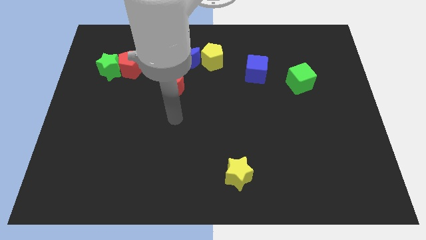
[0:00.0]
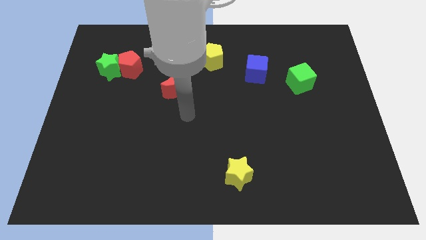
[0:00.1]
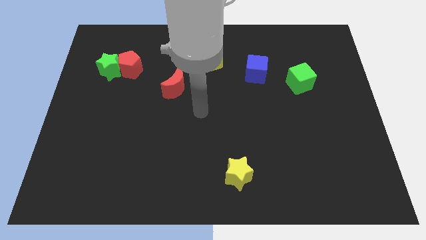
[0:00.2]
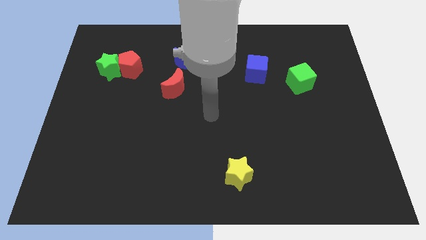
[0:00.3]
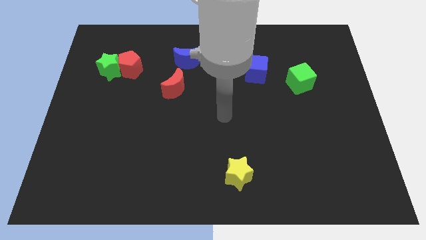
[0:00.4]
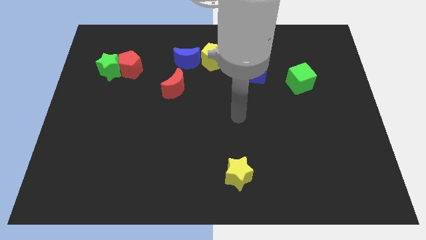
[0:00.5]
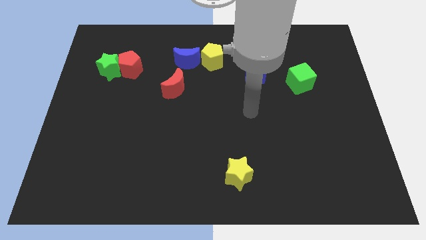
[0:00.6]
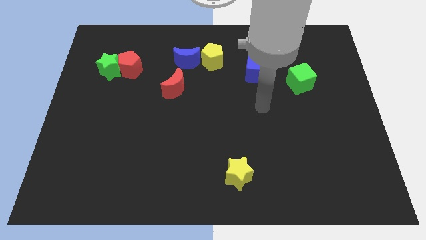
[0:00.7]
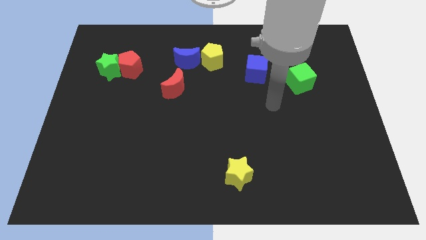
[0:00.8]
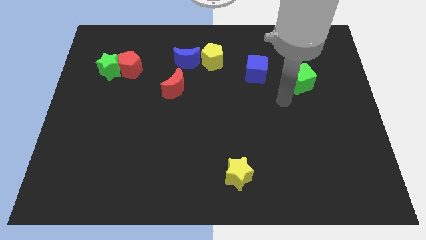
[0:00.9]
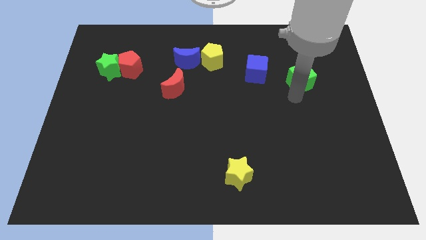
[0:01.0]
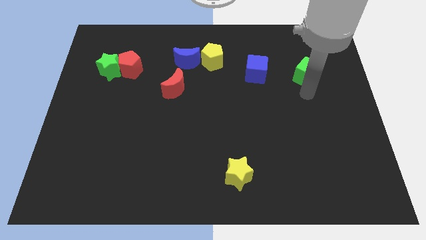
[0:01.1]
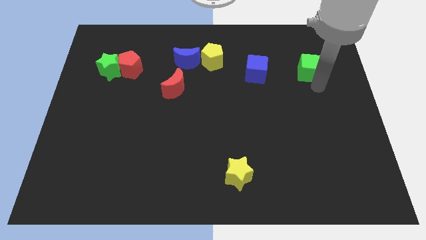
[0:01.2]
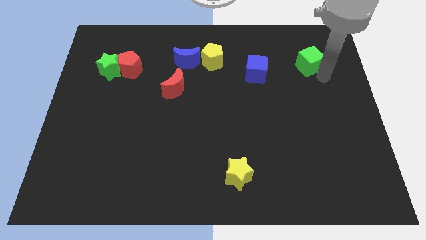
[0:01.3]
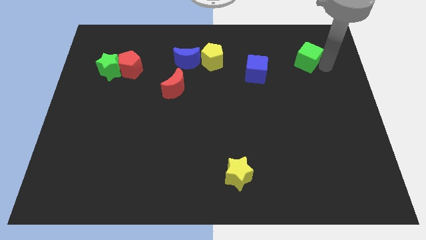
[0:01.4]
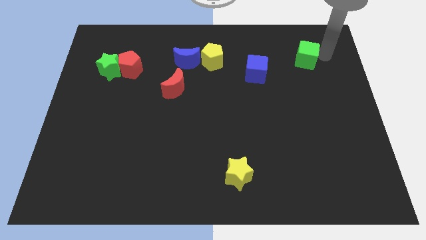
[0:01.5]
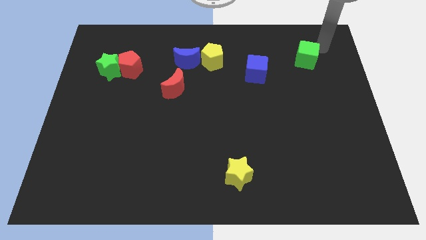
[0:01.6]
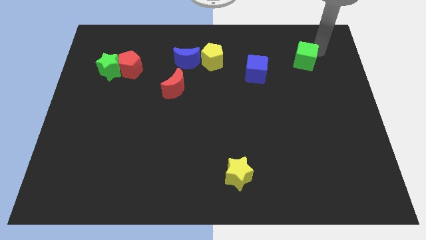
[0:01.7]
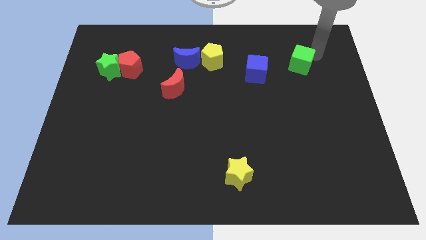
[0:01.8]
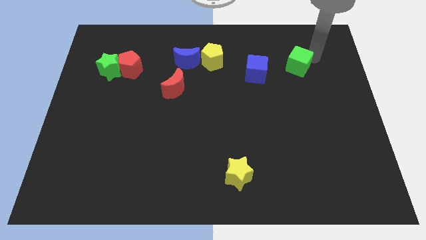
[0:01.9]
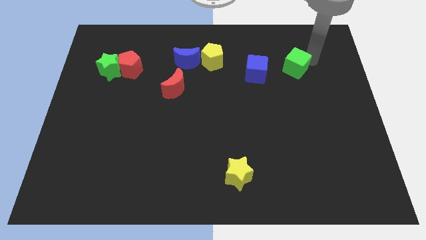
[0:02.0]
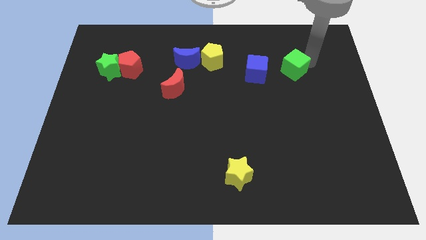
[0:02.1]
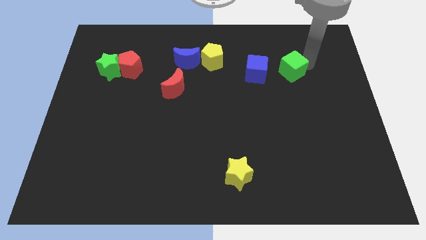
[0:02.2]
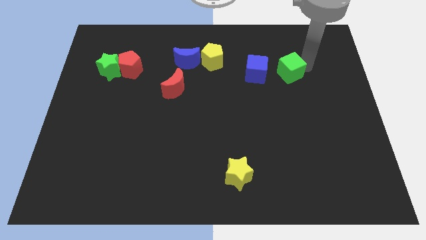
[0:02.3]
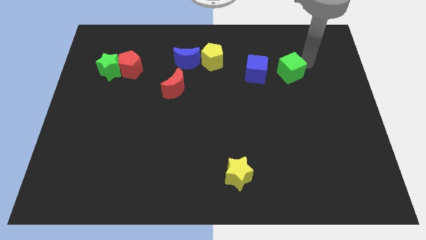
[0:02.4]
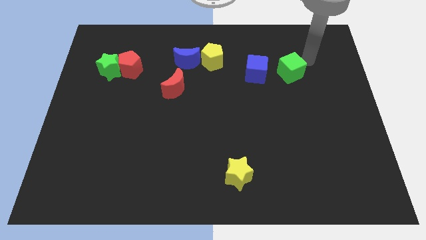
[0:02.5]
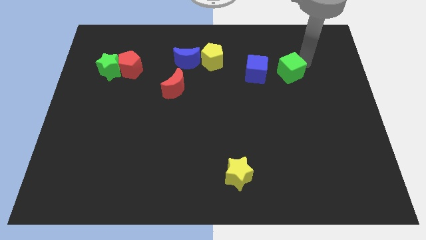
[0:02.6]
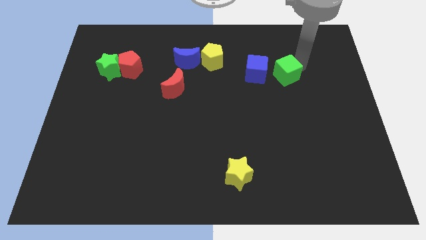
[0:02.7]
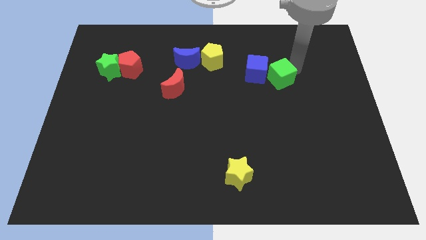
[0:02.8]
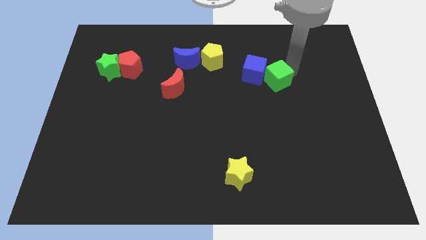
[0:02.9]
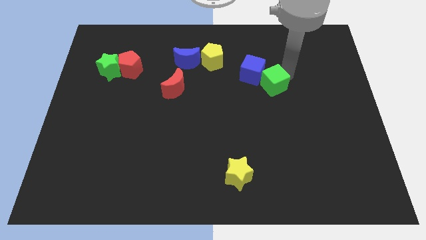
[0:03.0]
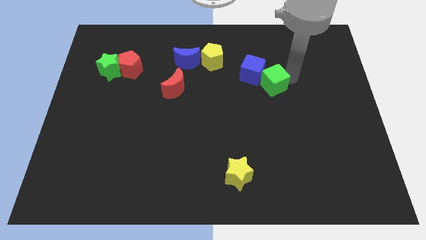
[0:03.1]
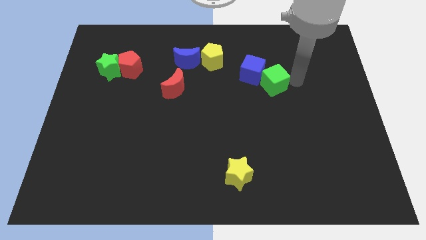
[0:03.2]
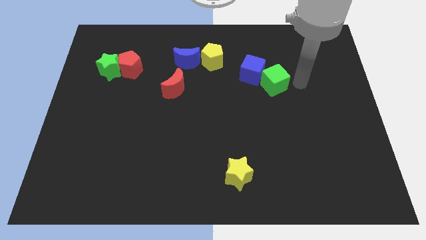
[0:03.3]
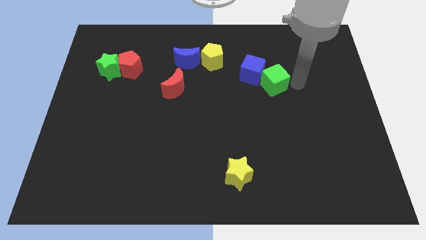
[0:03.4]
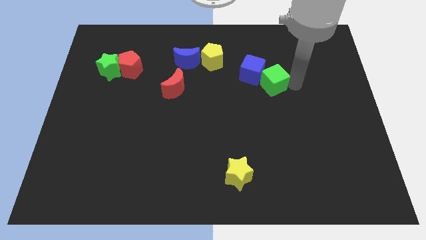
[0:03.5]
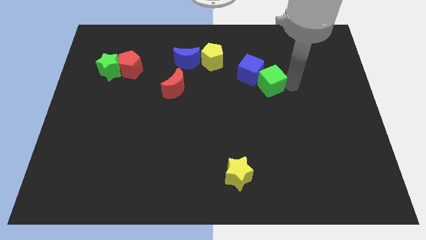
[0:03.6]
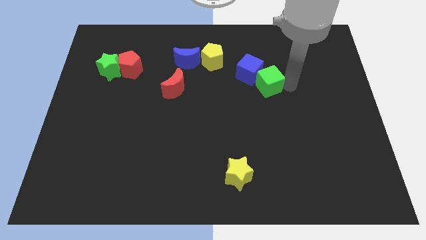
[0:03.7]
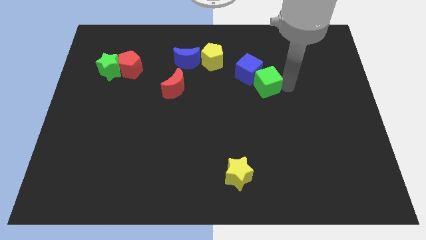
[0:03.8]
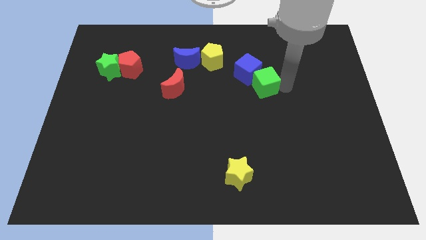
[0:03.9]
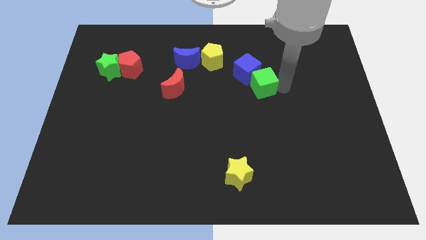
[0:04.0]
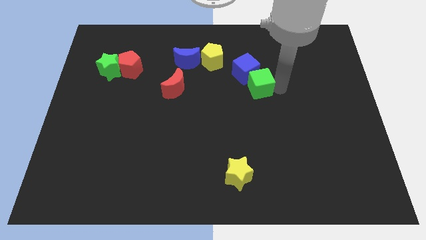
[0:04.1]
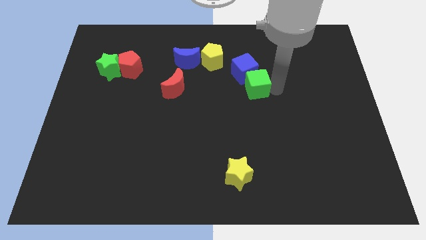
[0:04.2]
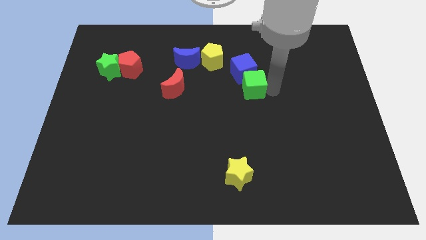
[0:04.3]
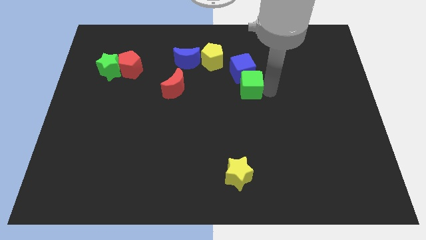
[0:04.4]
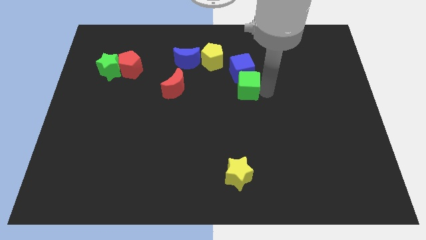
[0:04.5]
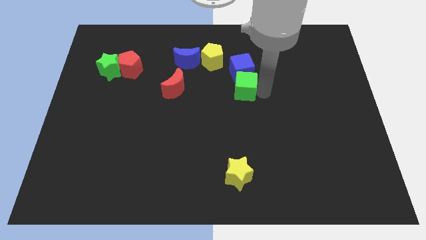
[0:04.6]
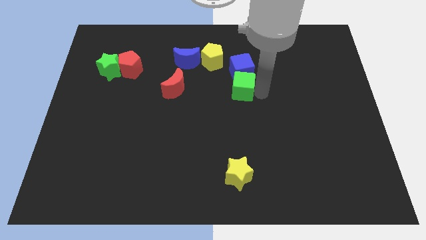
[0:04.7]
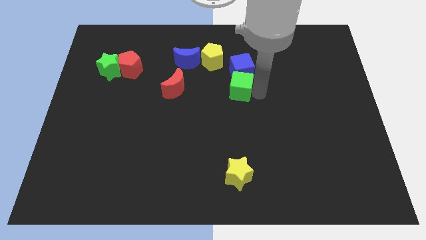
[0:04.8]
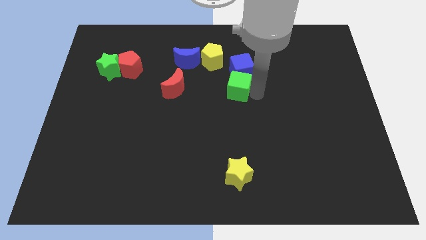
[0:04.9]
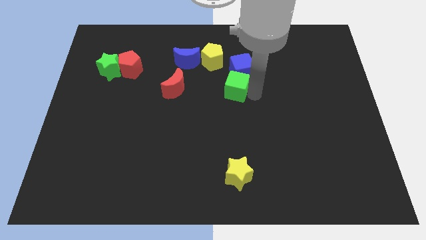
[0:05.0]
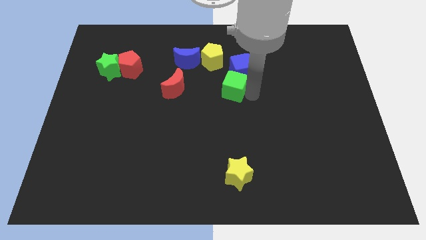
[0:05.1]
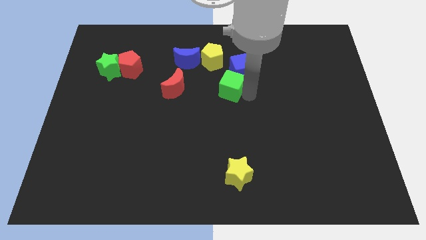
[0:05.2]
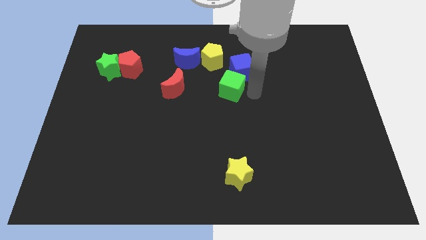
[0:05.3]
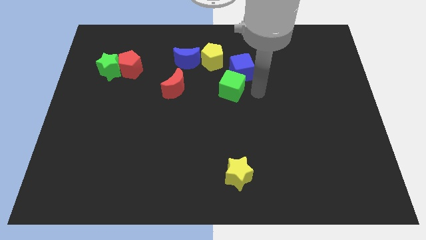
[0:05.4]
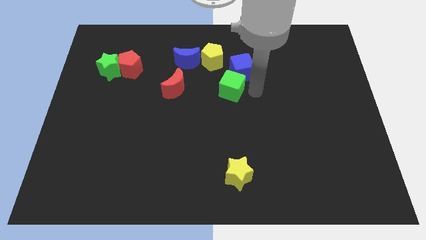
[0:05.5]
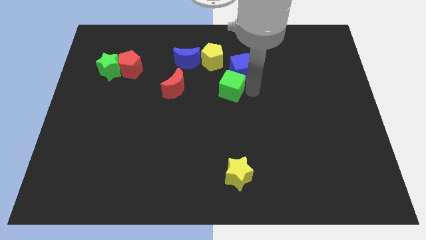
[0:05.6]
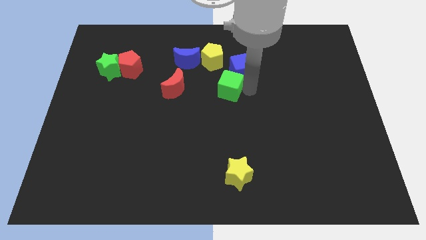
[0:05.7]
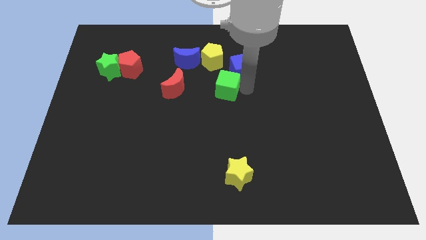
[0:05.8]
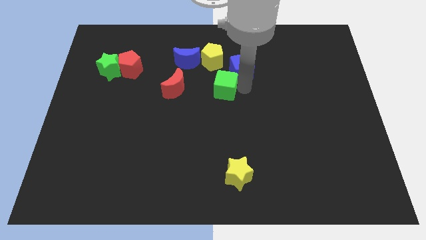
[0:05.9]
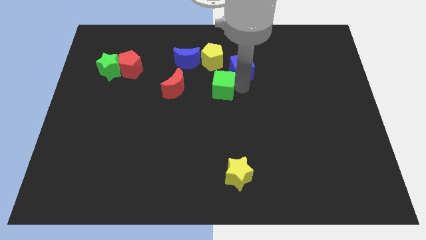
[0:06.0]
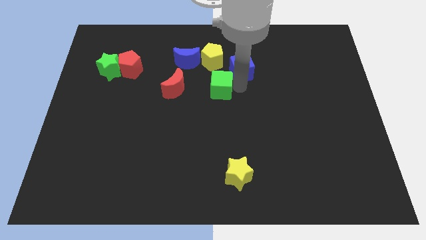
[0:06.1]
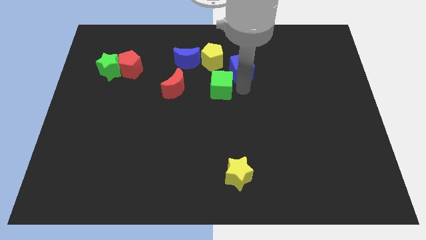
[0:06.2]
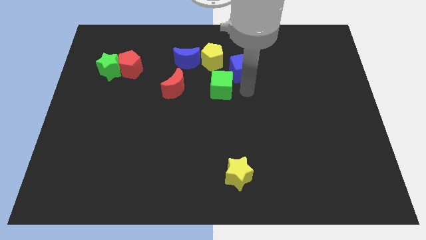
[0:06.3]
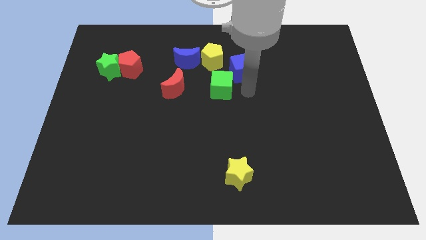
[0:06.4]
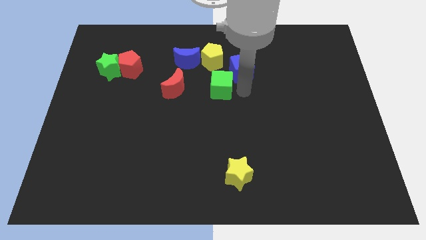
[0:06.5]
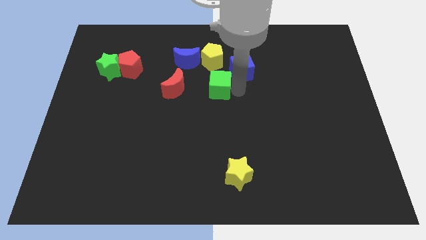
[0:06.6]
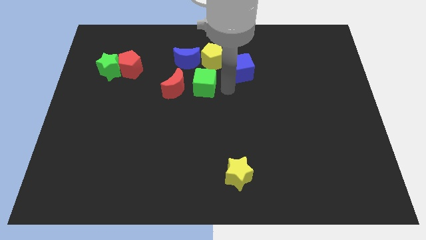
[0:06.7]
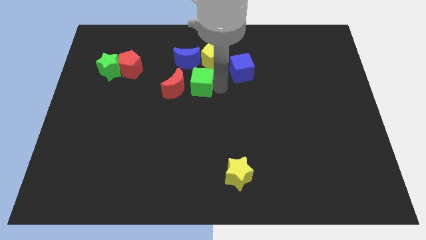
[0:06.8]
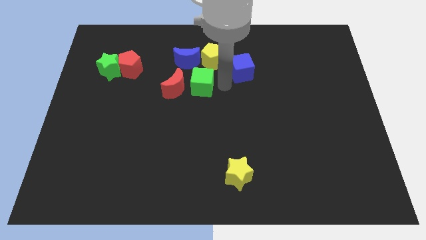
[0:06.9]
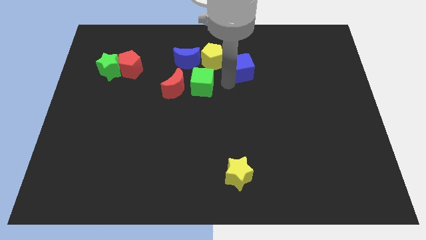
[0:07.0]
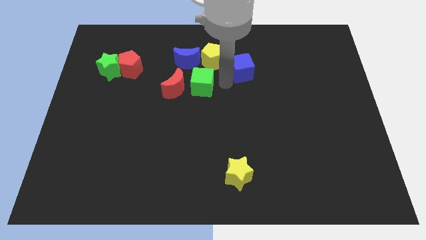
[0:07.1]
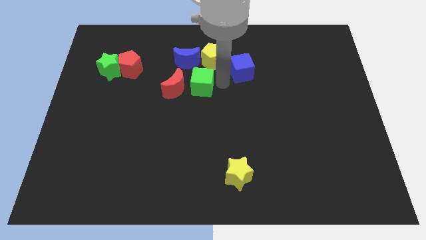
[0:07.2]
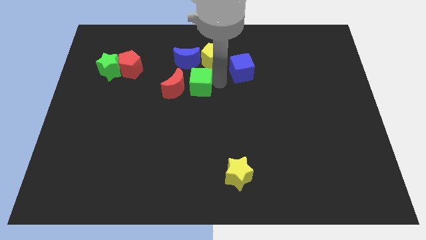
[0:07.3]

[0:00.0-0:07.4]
move the green cube next to the red moon
